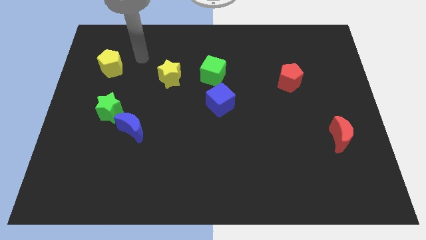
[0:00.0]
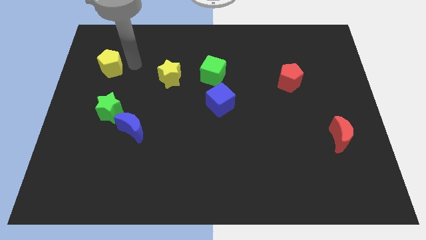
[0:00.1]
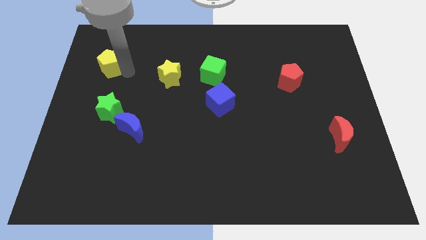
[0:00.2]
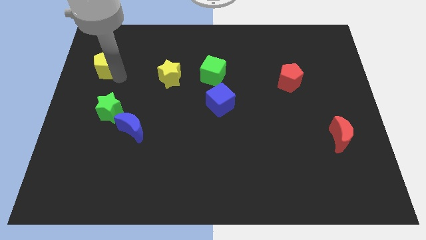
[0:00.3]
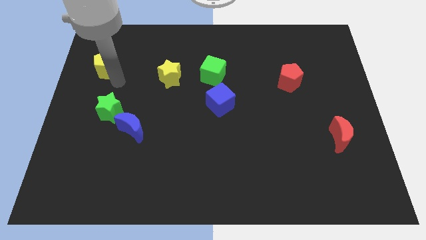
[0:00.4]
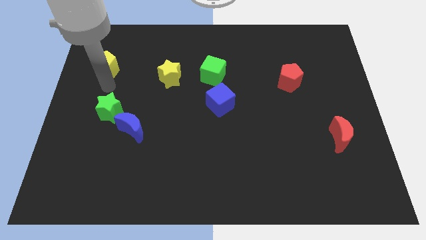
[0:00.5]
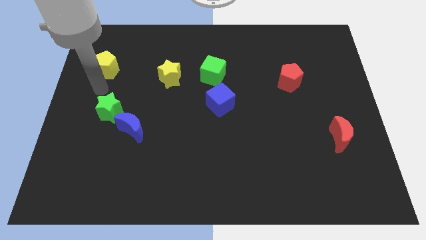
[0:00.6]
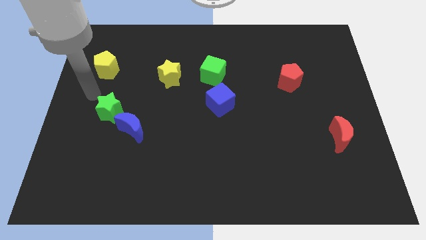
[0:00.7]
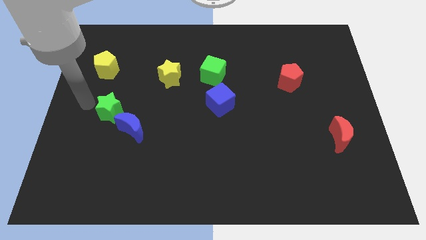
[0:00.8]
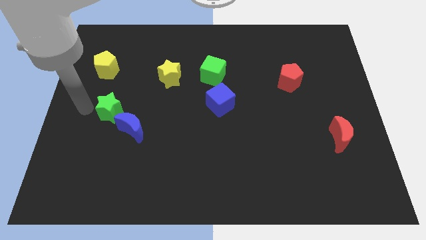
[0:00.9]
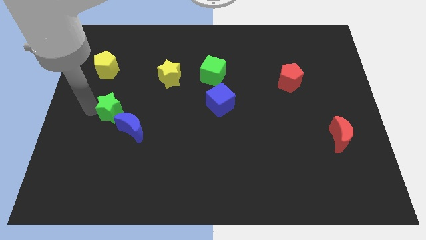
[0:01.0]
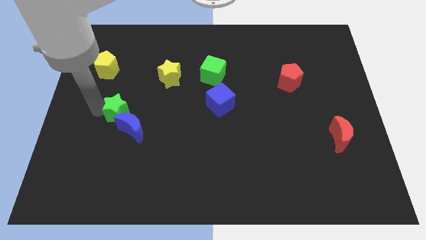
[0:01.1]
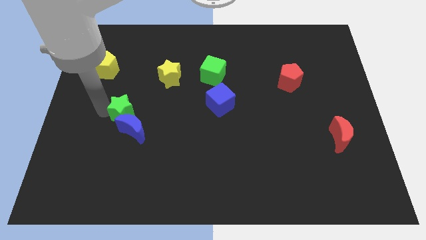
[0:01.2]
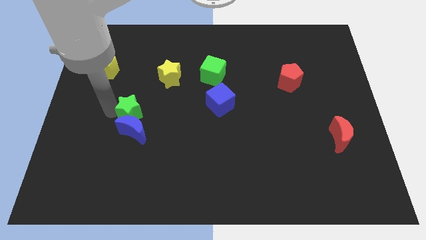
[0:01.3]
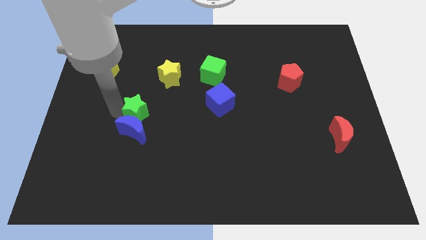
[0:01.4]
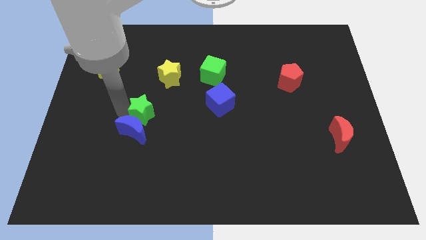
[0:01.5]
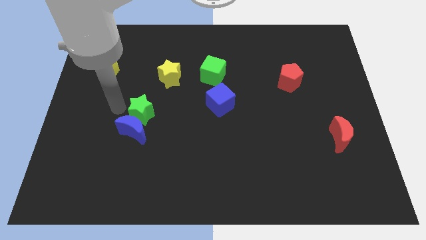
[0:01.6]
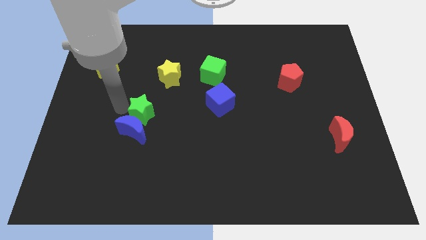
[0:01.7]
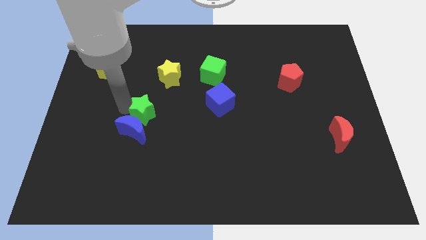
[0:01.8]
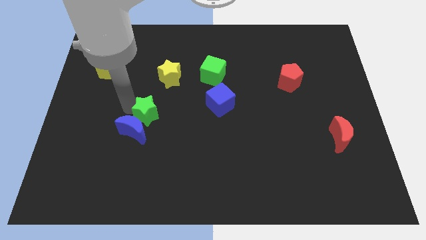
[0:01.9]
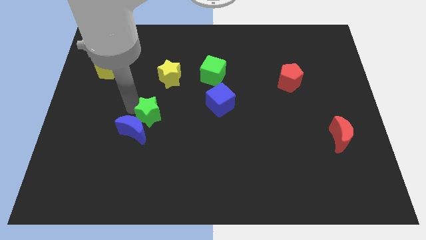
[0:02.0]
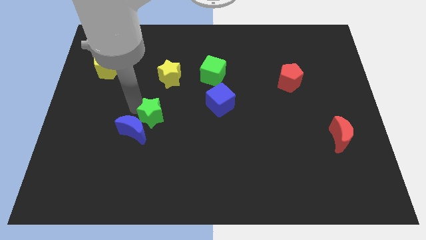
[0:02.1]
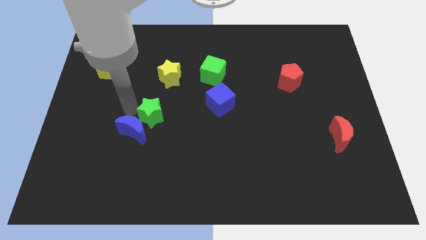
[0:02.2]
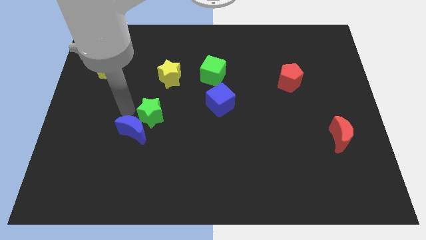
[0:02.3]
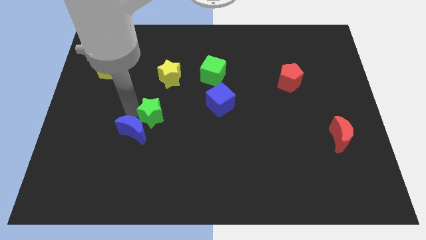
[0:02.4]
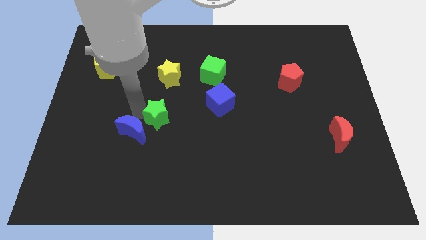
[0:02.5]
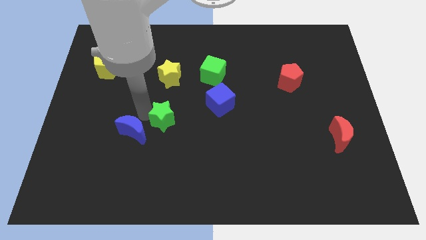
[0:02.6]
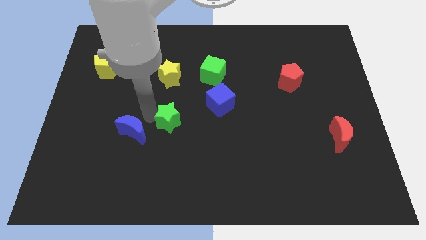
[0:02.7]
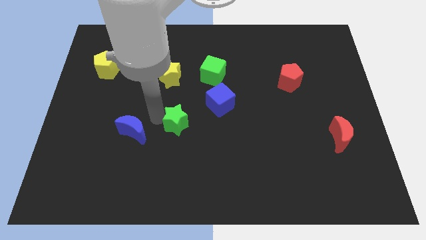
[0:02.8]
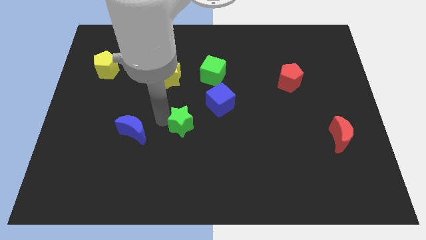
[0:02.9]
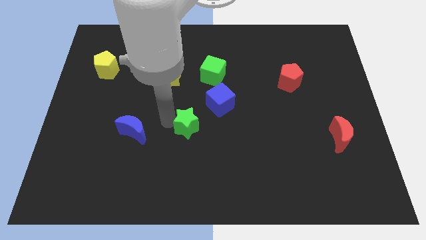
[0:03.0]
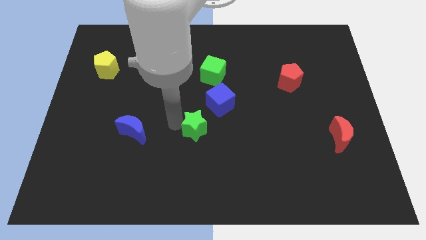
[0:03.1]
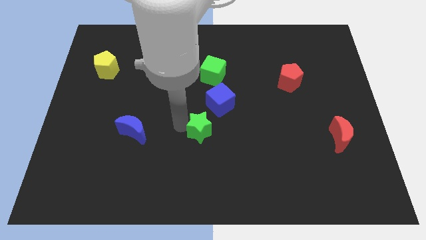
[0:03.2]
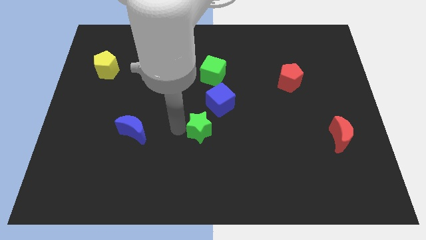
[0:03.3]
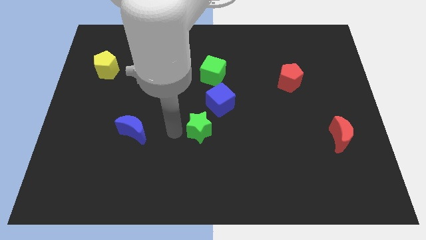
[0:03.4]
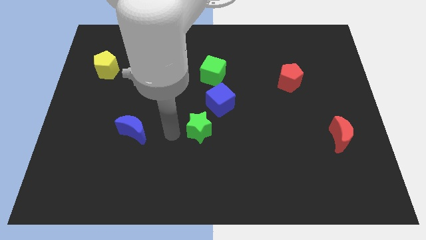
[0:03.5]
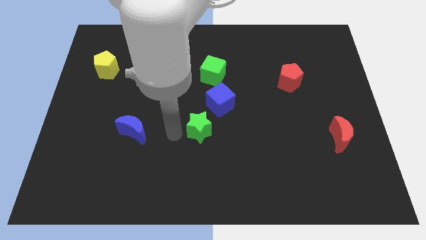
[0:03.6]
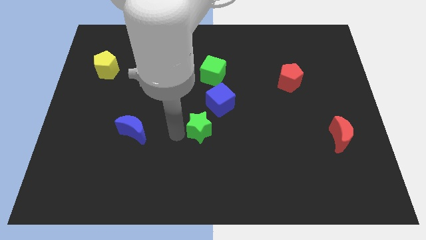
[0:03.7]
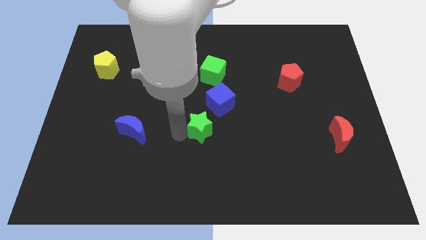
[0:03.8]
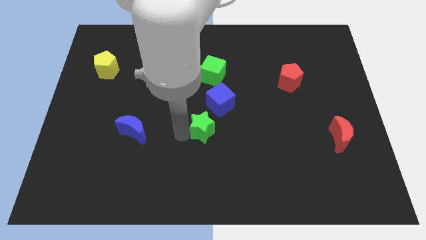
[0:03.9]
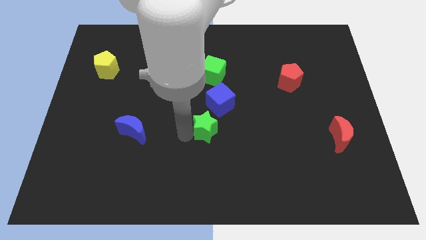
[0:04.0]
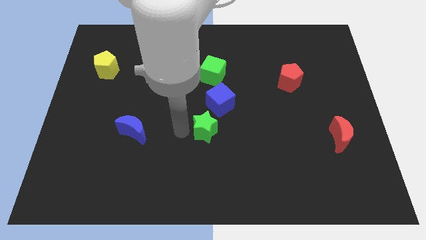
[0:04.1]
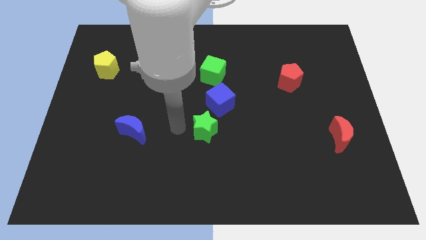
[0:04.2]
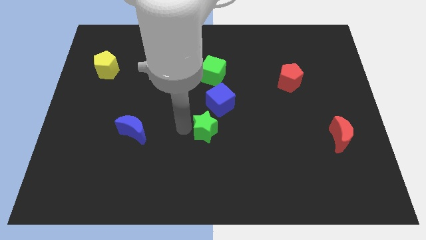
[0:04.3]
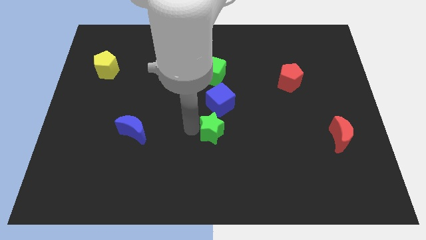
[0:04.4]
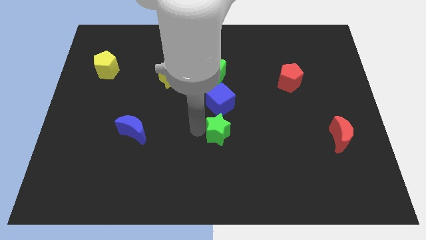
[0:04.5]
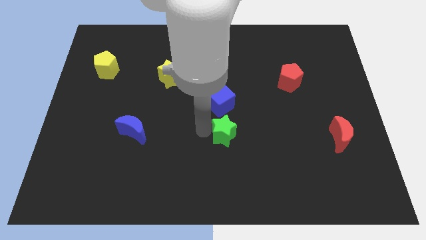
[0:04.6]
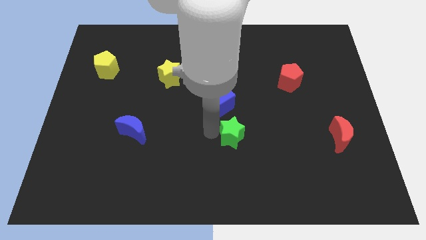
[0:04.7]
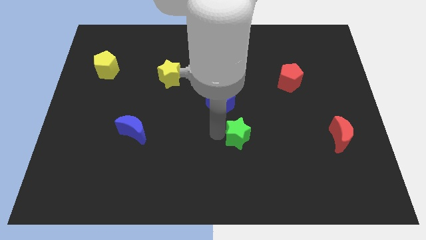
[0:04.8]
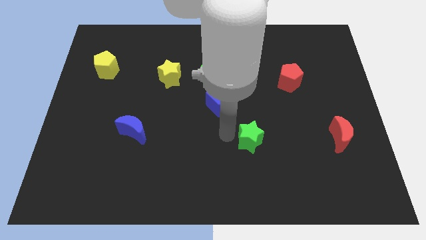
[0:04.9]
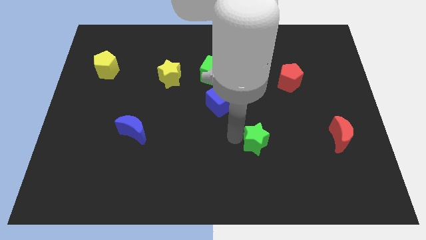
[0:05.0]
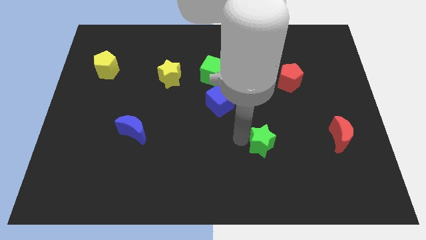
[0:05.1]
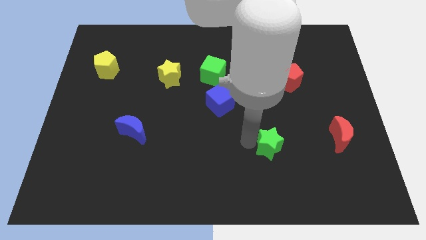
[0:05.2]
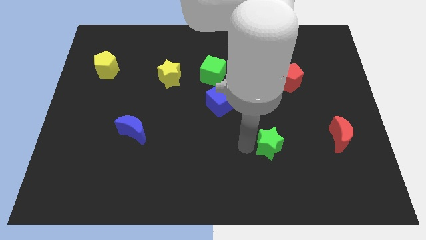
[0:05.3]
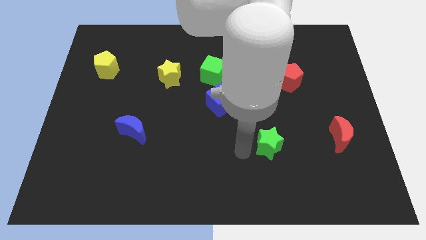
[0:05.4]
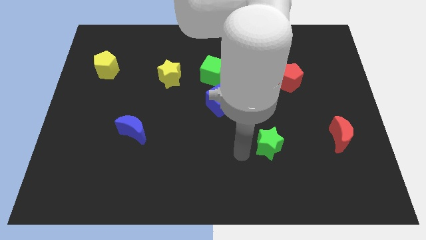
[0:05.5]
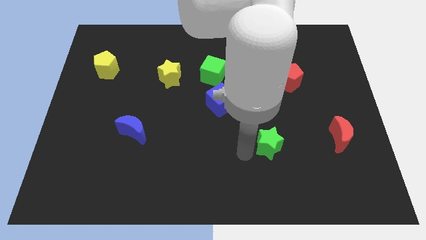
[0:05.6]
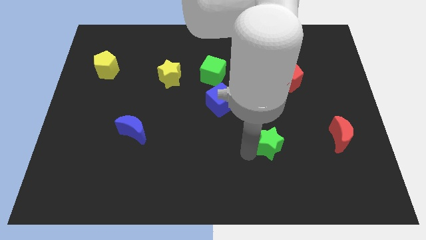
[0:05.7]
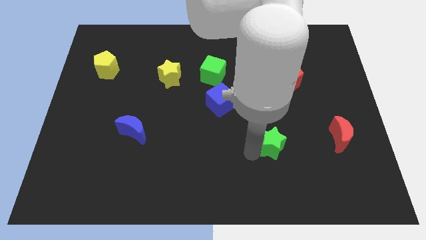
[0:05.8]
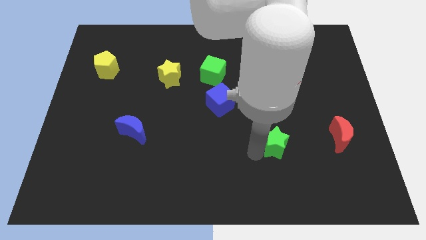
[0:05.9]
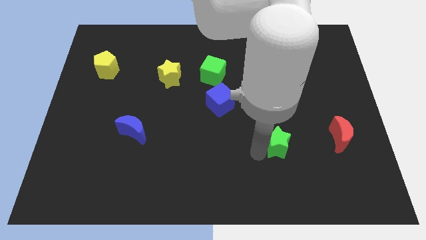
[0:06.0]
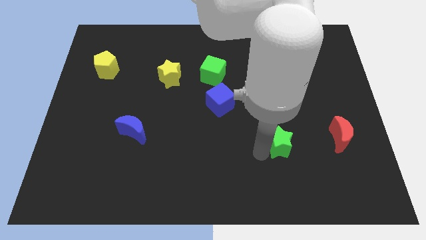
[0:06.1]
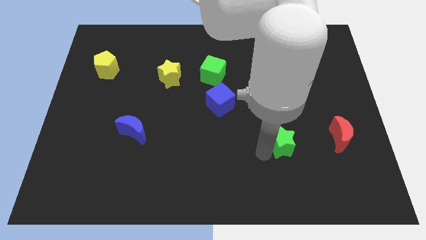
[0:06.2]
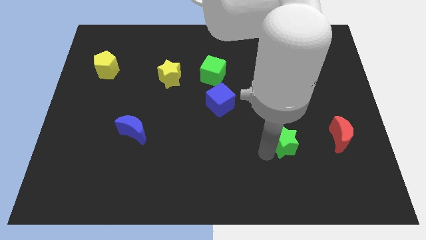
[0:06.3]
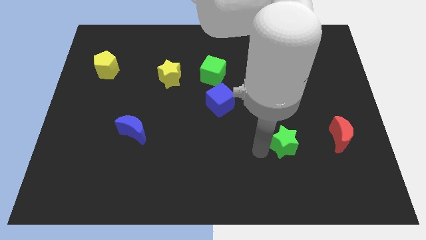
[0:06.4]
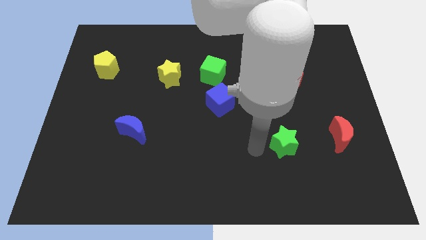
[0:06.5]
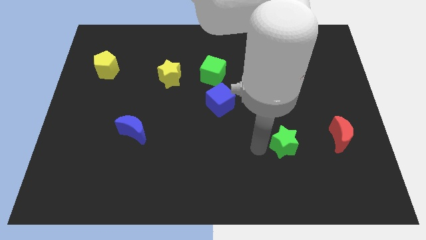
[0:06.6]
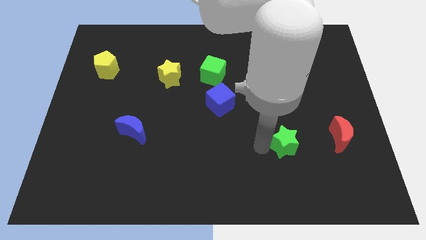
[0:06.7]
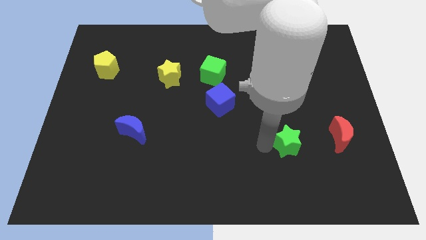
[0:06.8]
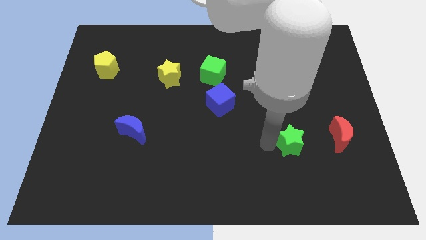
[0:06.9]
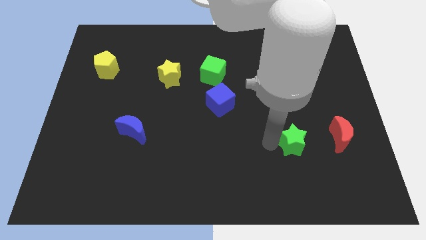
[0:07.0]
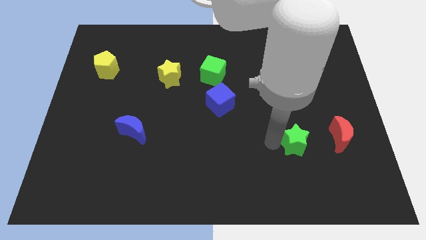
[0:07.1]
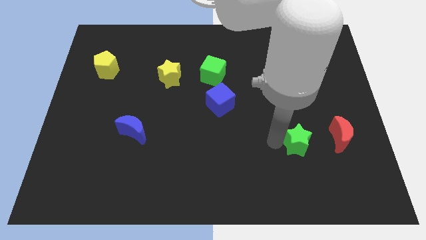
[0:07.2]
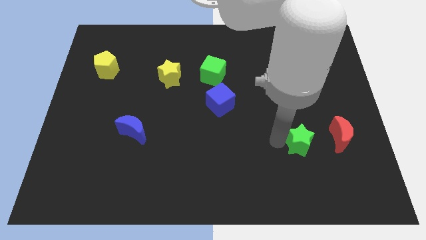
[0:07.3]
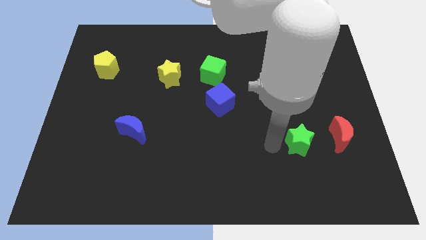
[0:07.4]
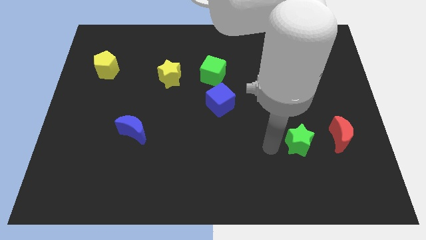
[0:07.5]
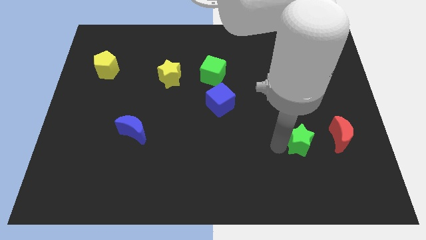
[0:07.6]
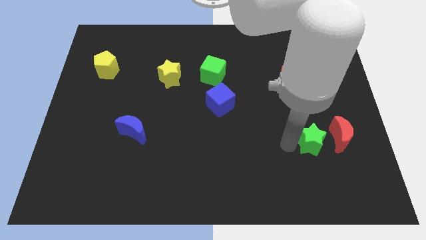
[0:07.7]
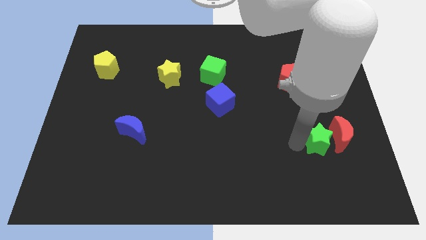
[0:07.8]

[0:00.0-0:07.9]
put the green star towards the red moon
